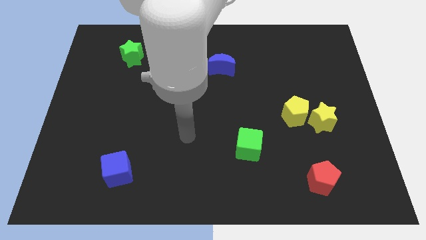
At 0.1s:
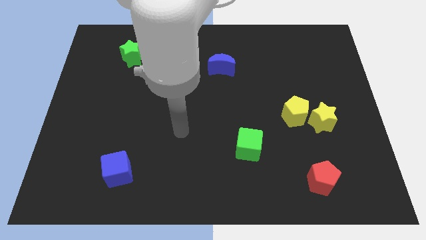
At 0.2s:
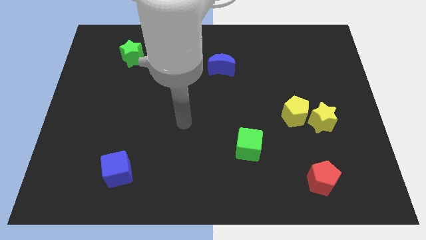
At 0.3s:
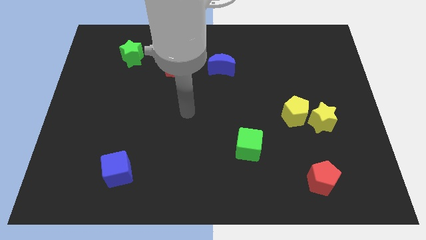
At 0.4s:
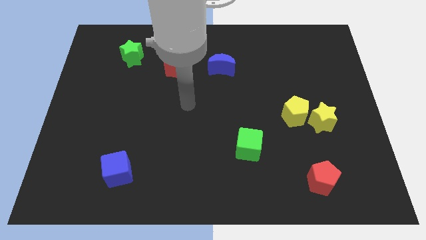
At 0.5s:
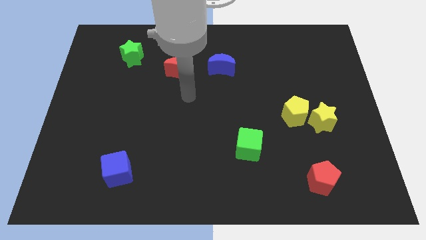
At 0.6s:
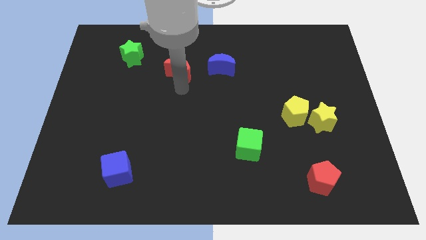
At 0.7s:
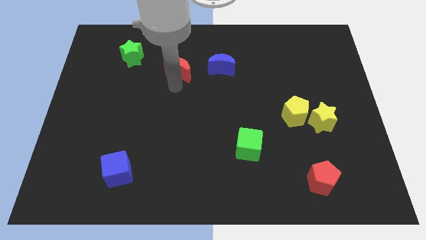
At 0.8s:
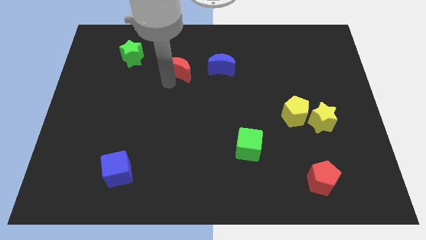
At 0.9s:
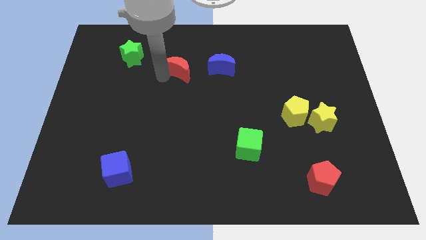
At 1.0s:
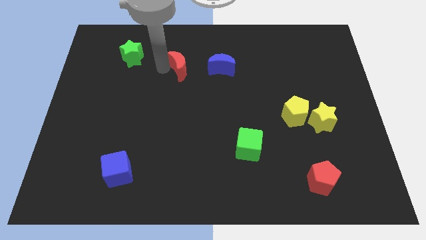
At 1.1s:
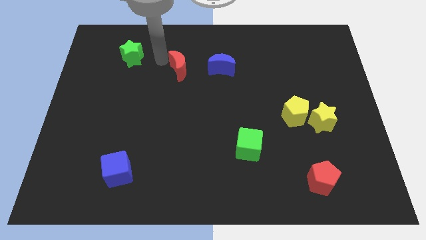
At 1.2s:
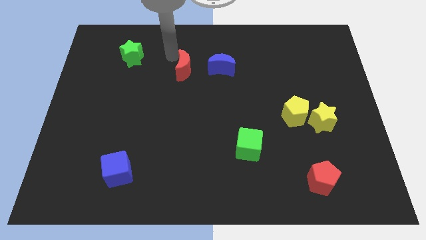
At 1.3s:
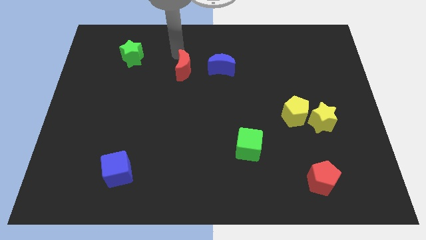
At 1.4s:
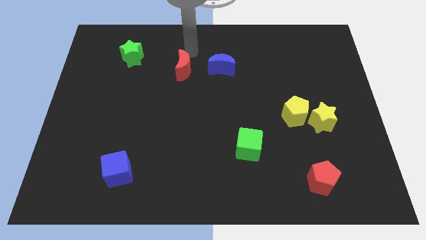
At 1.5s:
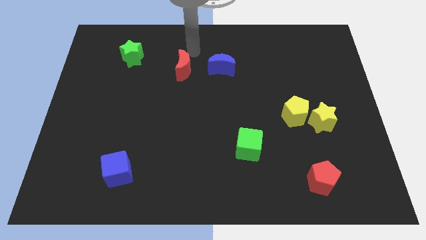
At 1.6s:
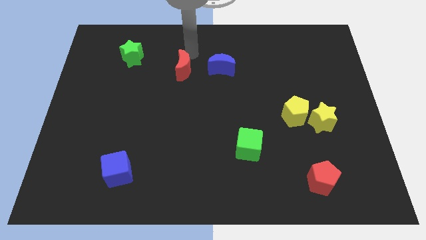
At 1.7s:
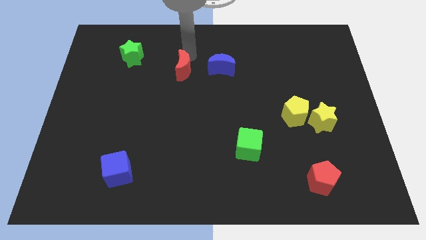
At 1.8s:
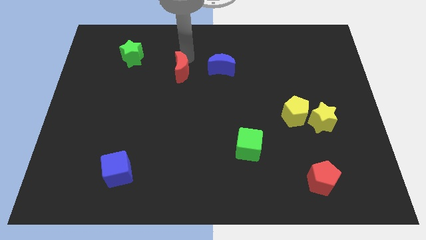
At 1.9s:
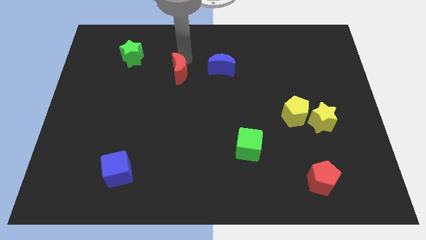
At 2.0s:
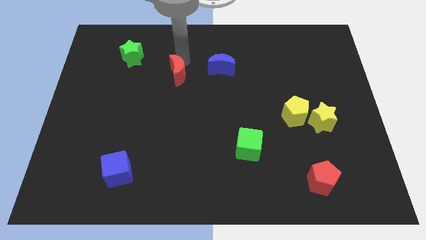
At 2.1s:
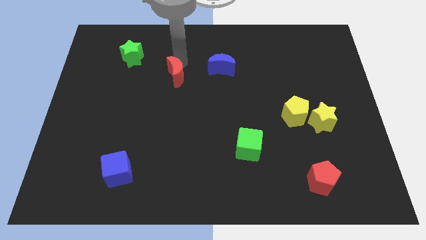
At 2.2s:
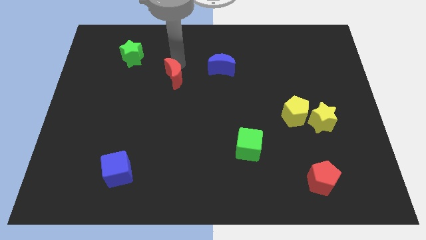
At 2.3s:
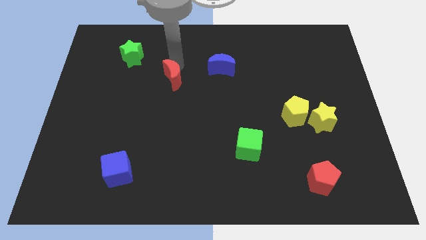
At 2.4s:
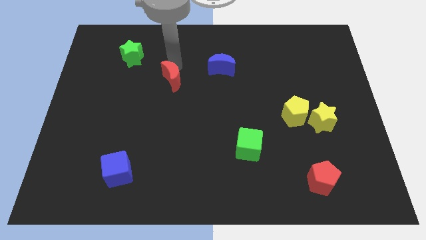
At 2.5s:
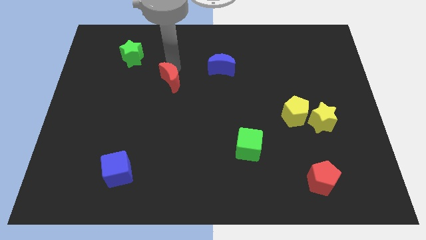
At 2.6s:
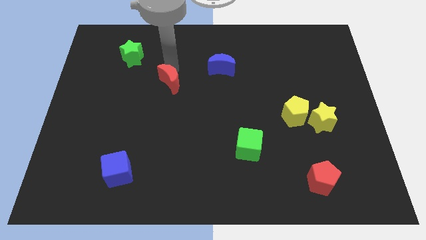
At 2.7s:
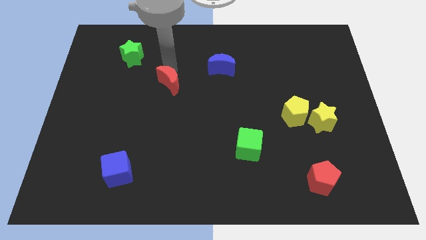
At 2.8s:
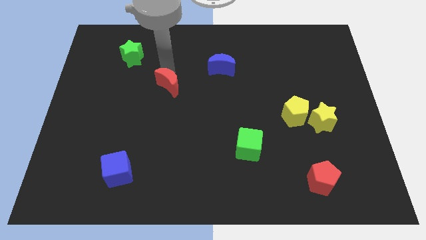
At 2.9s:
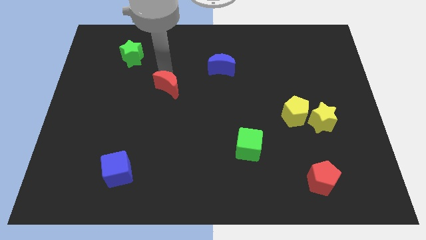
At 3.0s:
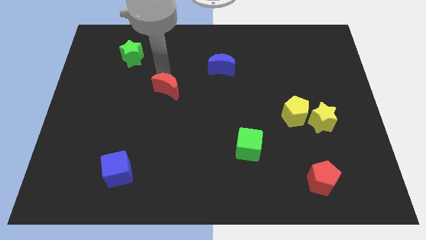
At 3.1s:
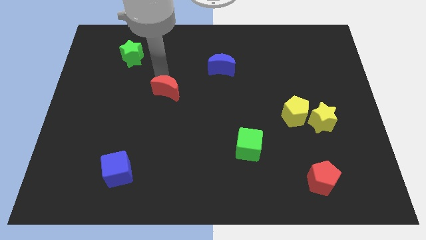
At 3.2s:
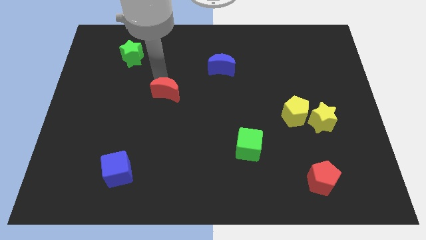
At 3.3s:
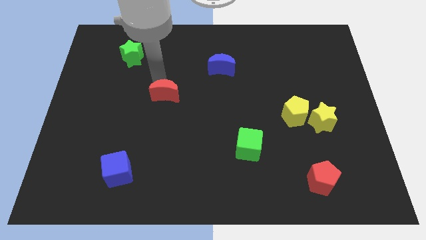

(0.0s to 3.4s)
push the red moon down a bit

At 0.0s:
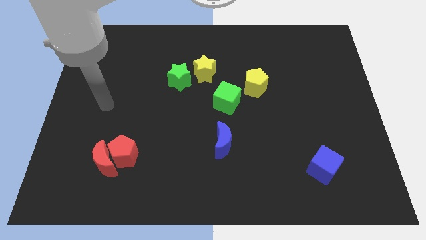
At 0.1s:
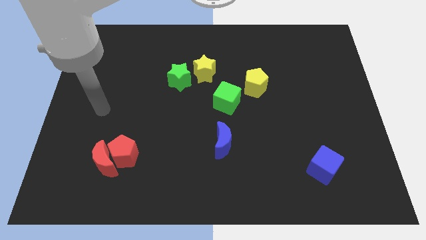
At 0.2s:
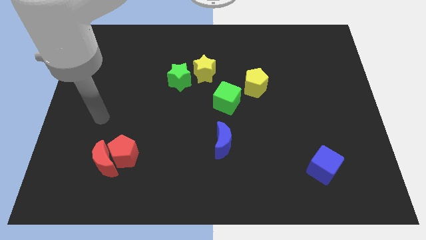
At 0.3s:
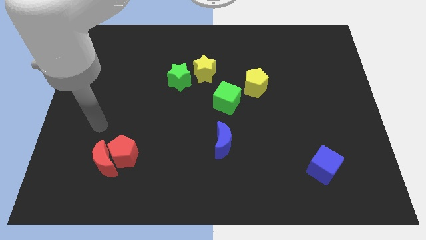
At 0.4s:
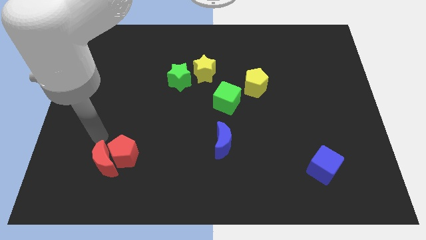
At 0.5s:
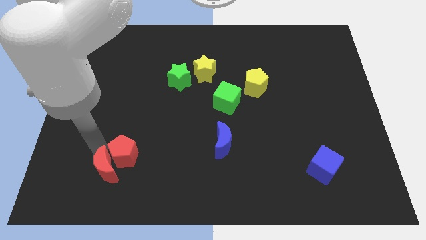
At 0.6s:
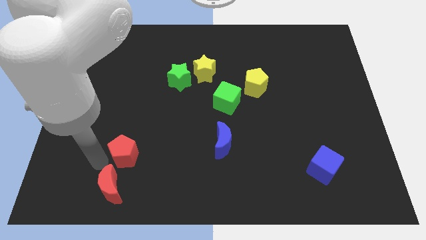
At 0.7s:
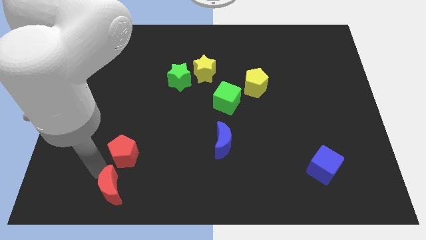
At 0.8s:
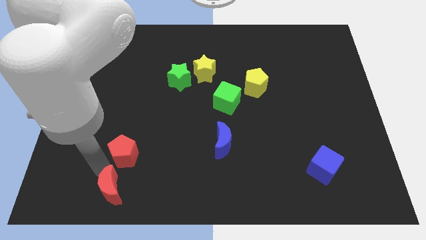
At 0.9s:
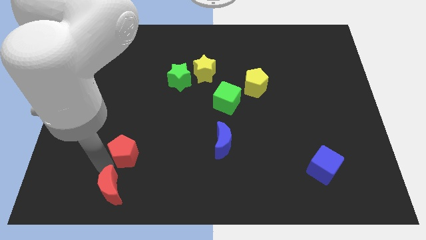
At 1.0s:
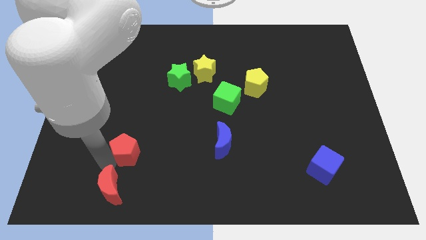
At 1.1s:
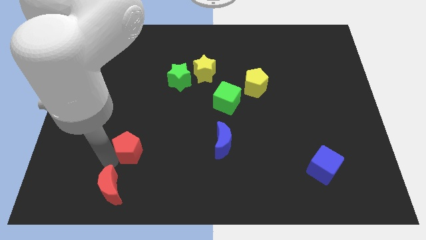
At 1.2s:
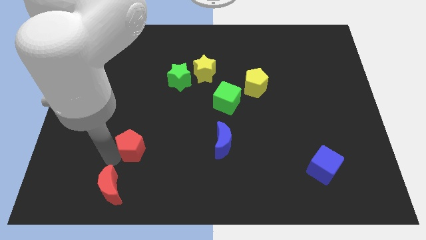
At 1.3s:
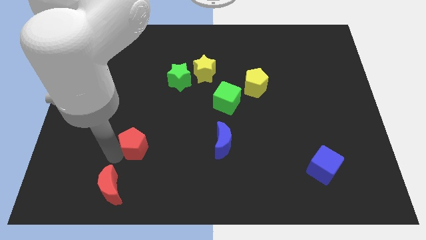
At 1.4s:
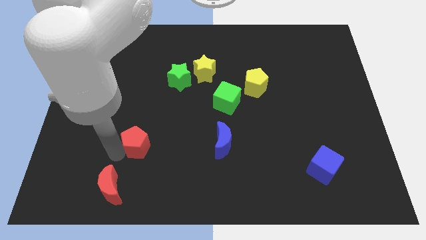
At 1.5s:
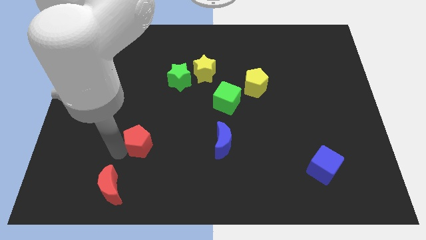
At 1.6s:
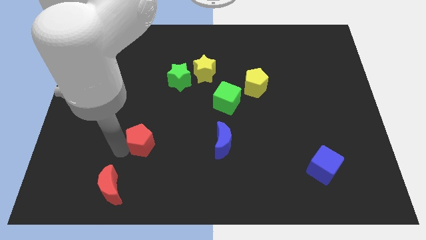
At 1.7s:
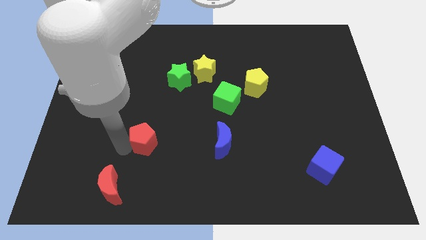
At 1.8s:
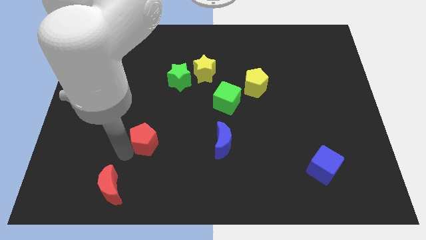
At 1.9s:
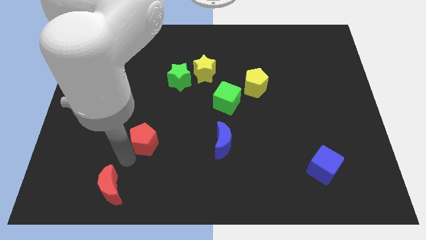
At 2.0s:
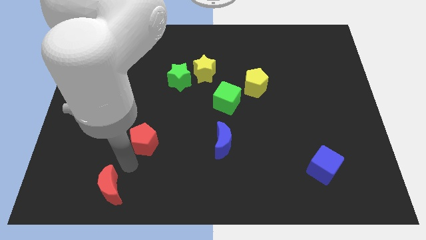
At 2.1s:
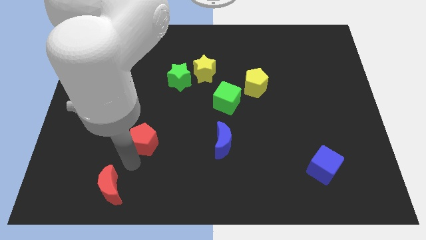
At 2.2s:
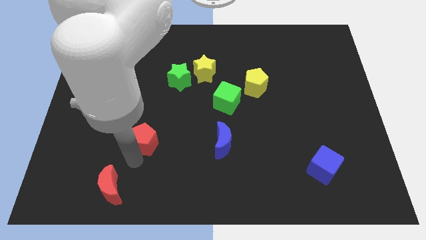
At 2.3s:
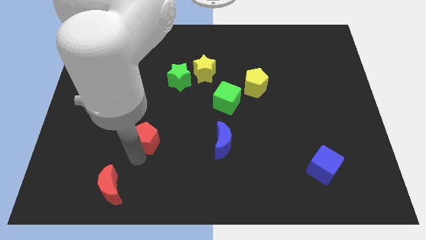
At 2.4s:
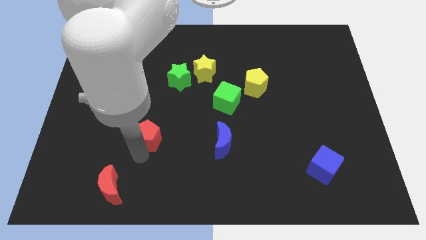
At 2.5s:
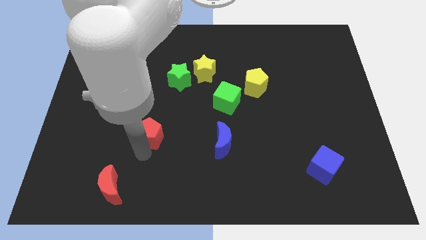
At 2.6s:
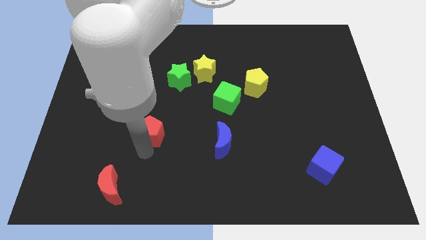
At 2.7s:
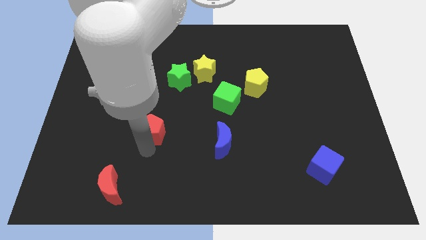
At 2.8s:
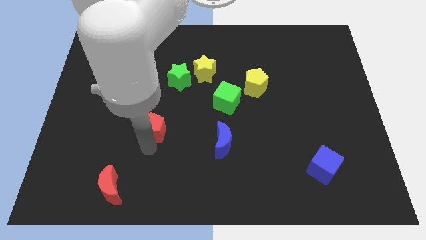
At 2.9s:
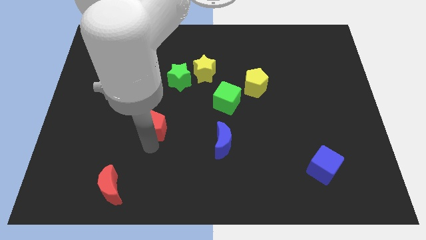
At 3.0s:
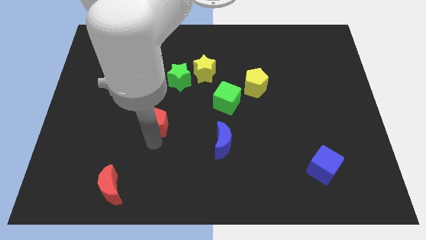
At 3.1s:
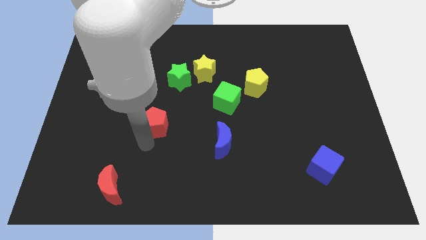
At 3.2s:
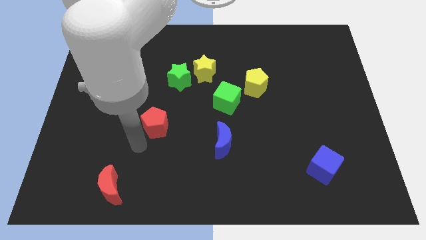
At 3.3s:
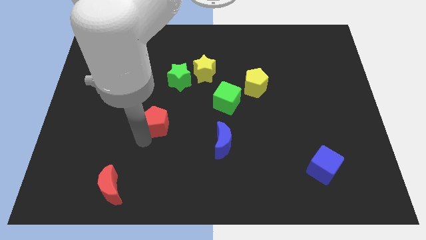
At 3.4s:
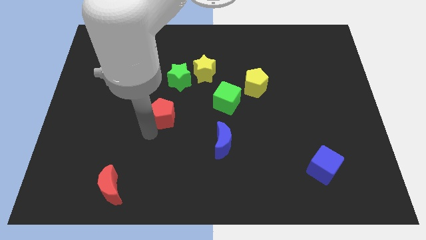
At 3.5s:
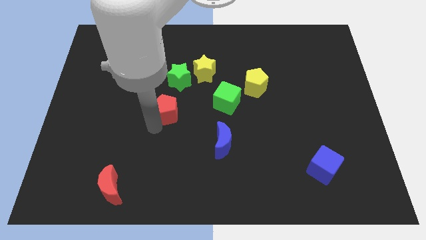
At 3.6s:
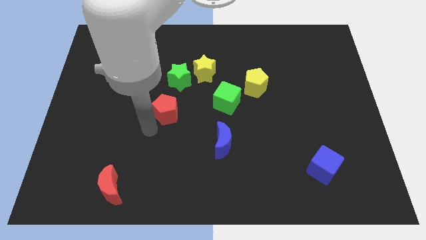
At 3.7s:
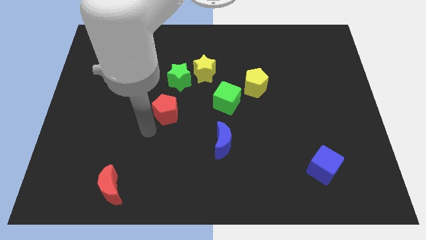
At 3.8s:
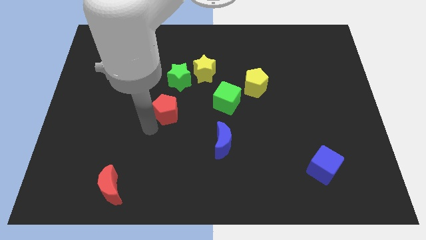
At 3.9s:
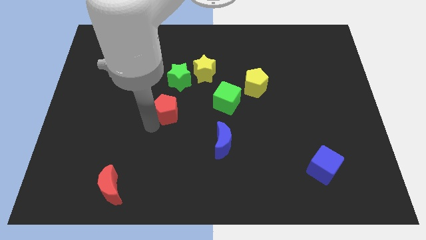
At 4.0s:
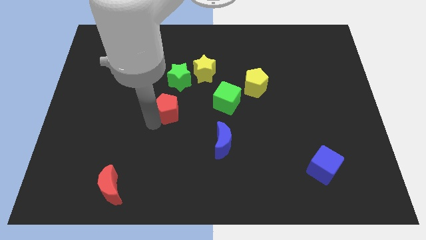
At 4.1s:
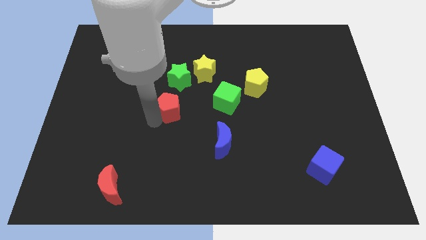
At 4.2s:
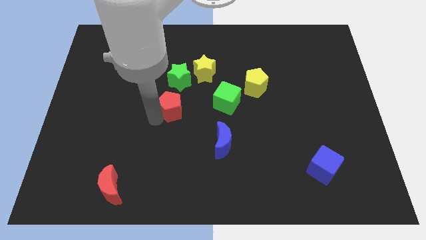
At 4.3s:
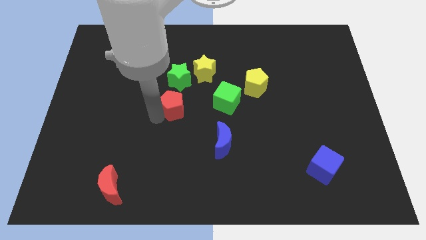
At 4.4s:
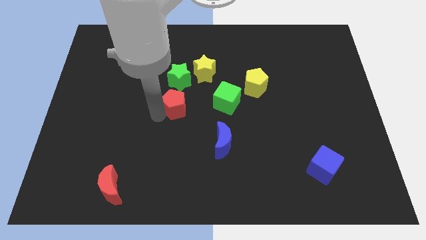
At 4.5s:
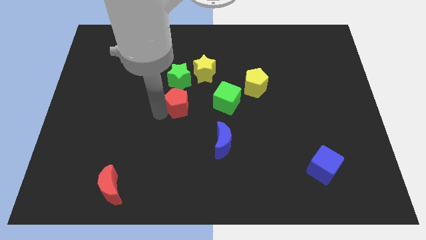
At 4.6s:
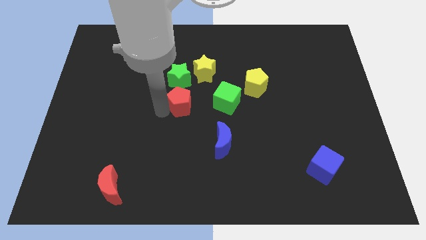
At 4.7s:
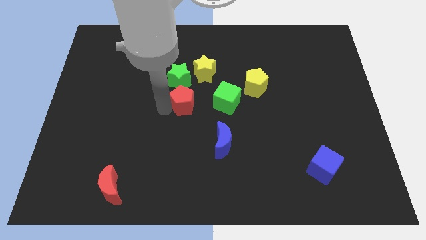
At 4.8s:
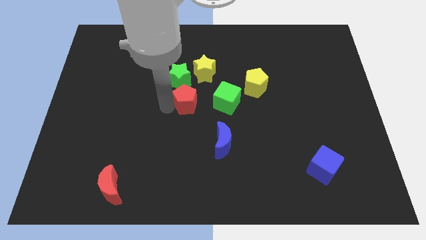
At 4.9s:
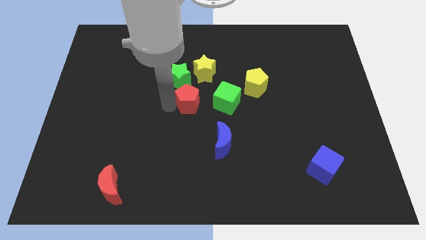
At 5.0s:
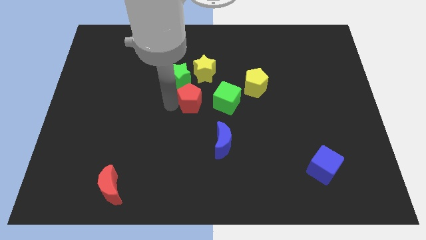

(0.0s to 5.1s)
move the red pentagon up and to the right diagonally
